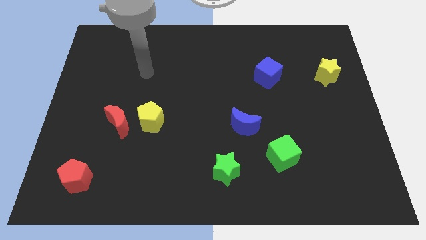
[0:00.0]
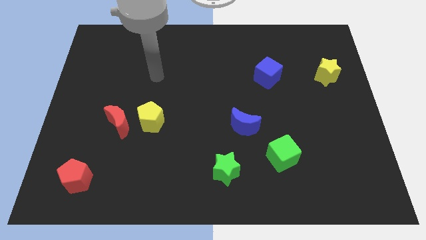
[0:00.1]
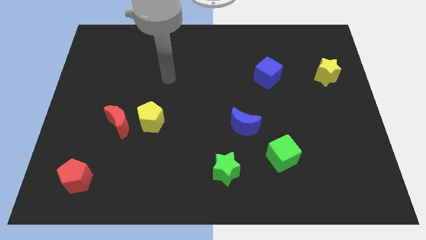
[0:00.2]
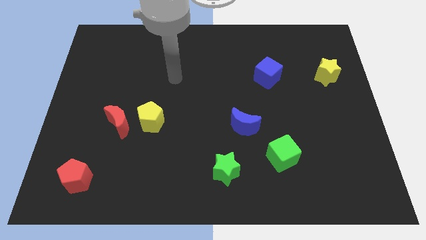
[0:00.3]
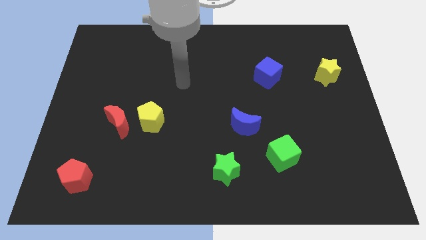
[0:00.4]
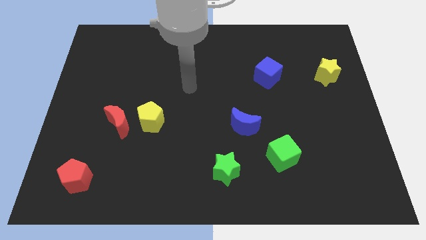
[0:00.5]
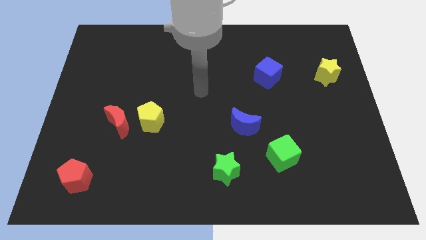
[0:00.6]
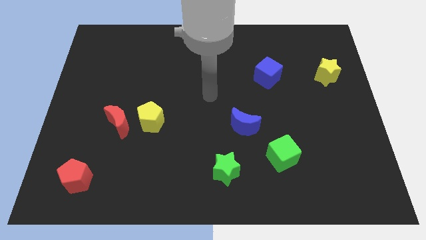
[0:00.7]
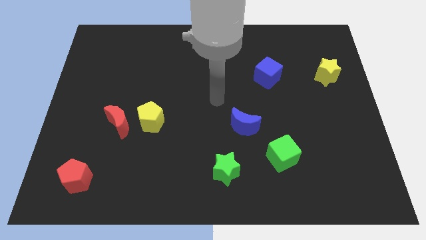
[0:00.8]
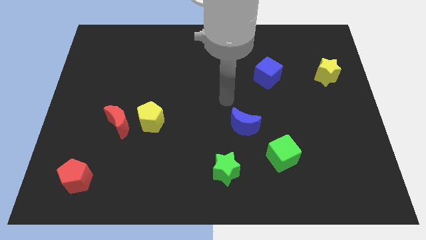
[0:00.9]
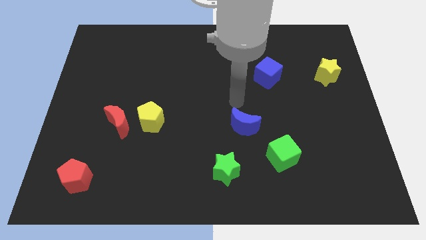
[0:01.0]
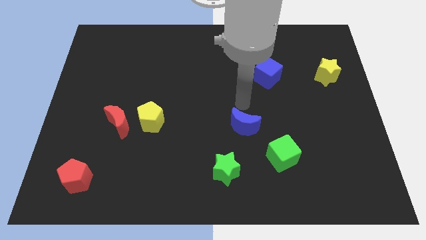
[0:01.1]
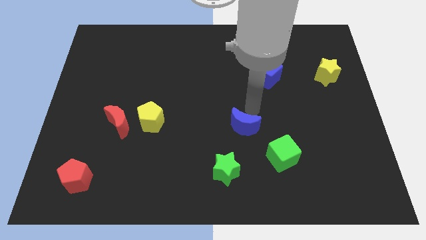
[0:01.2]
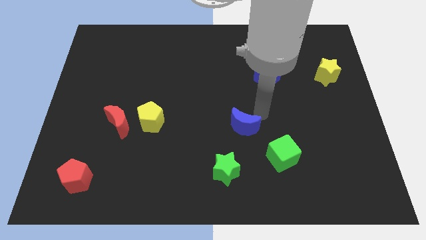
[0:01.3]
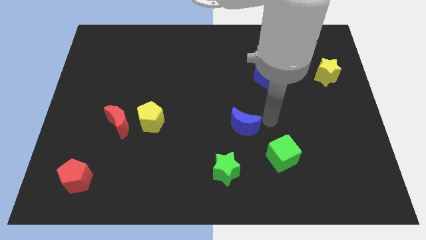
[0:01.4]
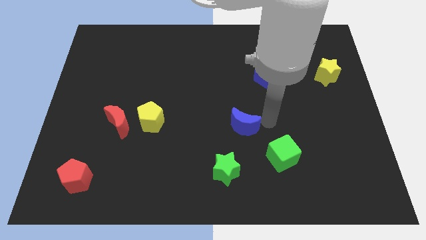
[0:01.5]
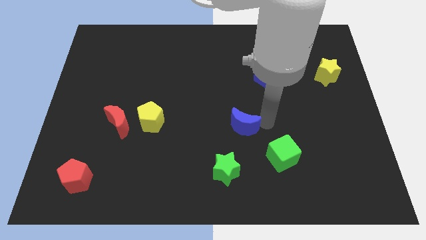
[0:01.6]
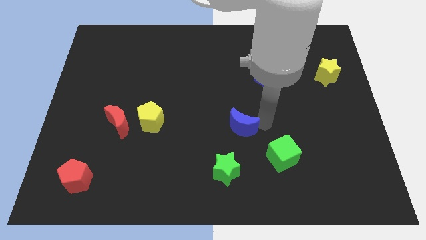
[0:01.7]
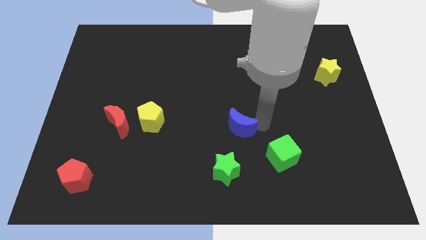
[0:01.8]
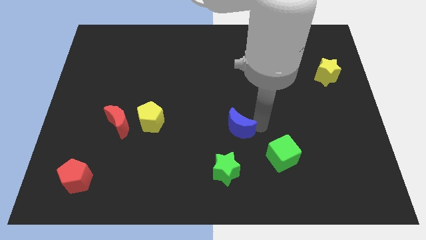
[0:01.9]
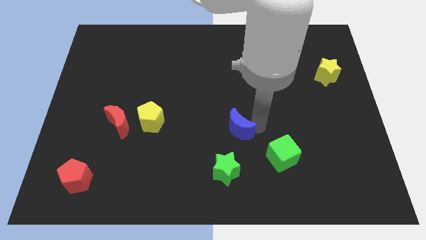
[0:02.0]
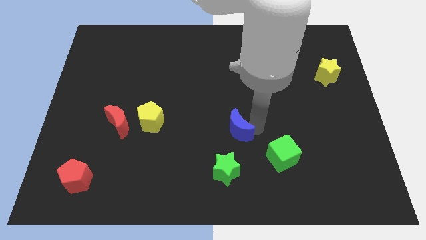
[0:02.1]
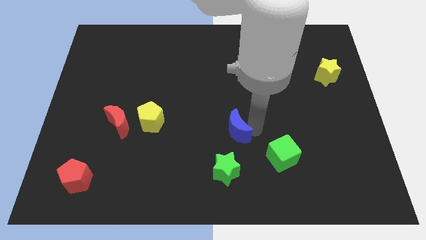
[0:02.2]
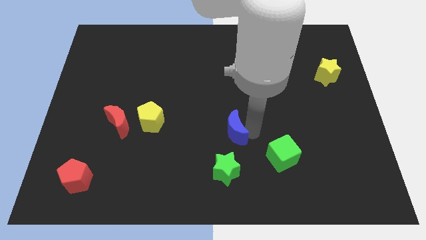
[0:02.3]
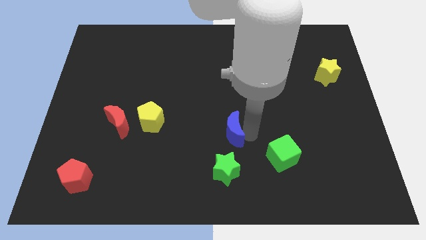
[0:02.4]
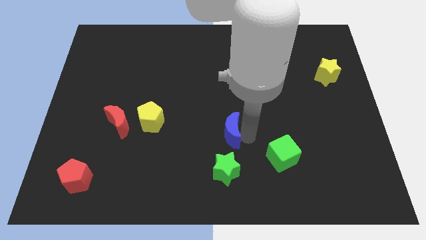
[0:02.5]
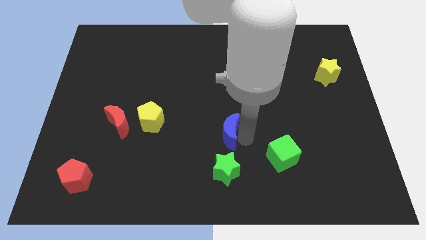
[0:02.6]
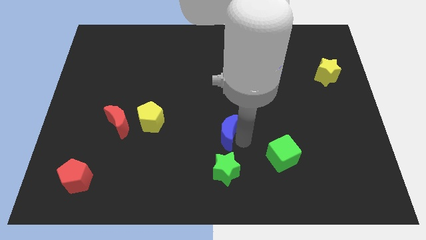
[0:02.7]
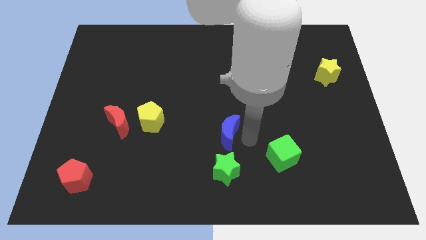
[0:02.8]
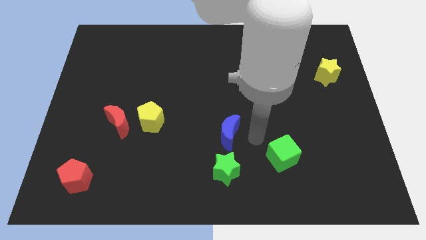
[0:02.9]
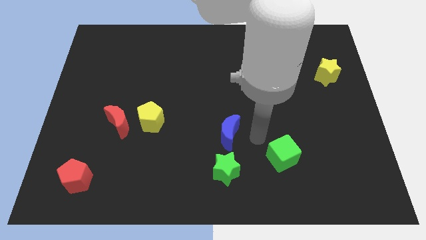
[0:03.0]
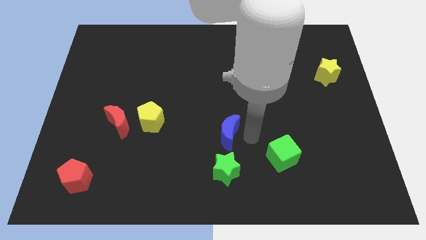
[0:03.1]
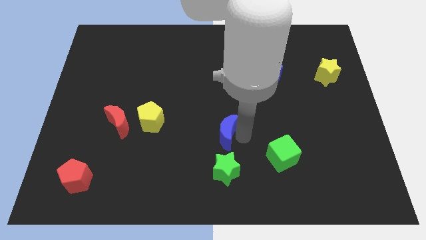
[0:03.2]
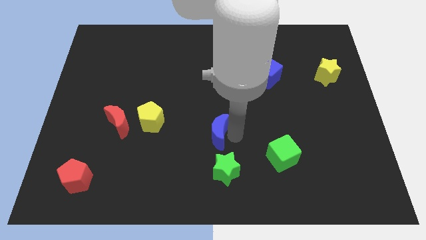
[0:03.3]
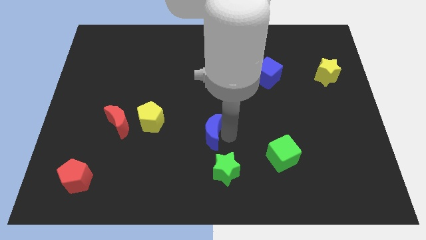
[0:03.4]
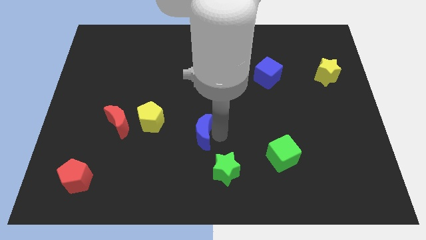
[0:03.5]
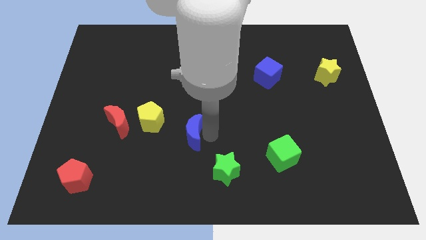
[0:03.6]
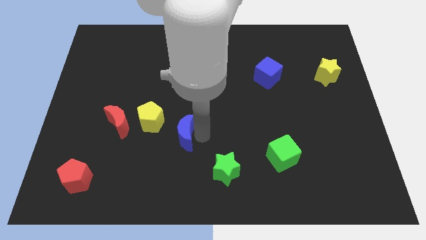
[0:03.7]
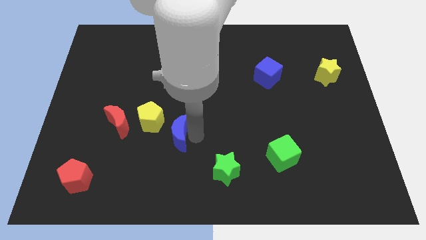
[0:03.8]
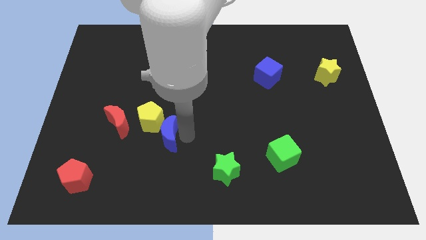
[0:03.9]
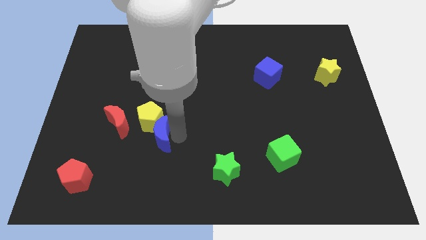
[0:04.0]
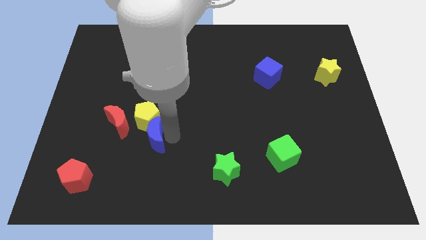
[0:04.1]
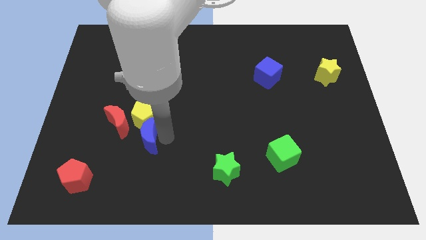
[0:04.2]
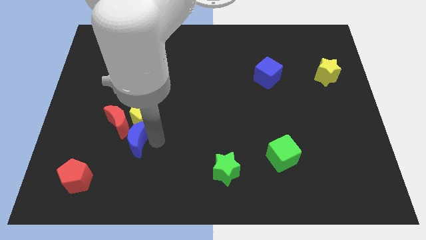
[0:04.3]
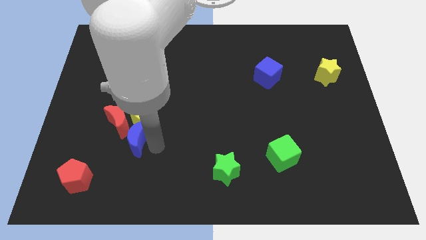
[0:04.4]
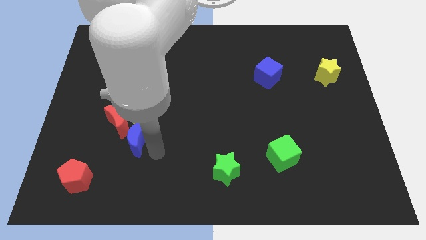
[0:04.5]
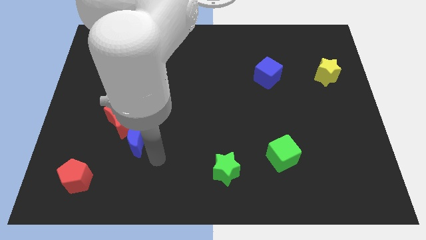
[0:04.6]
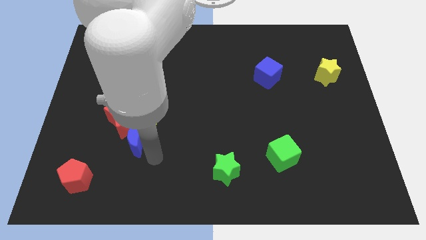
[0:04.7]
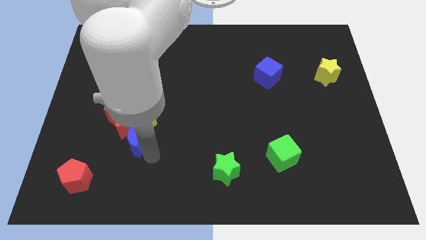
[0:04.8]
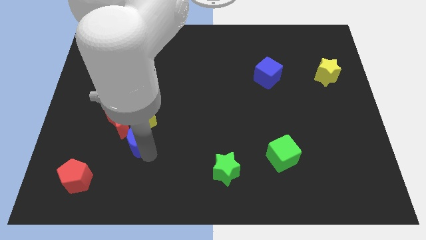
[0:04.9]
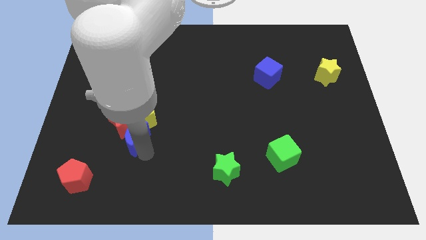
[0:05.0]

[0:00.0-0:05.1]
push the blue moon to the red moon

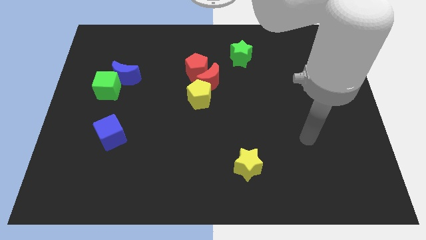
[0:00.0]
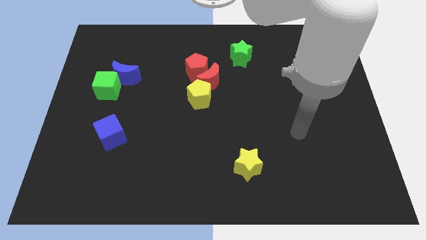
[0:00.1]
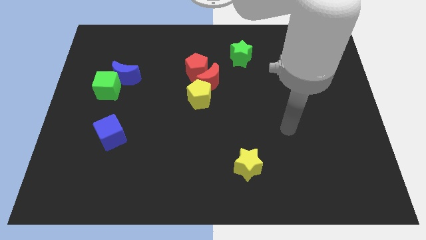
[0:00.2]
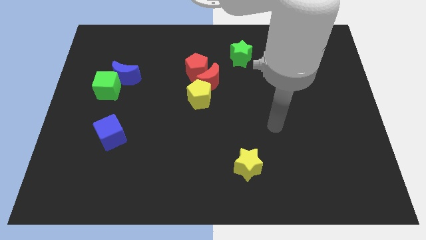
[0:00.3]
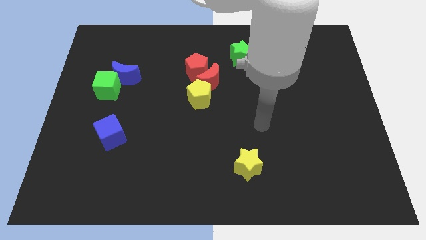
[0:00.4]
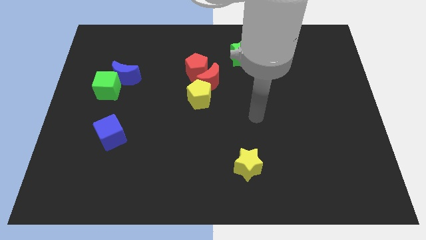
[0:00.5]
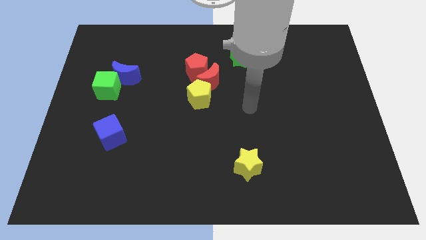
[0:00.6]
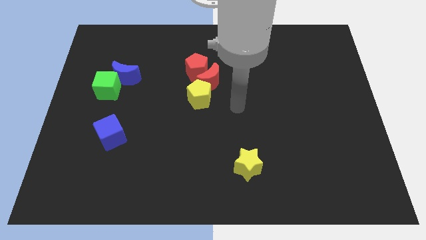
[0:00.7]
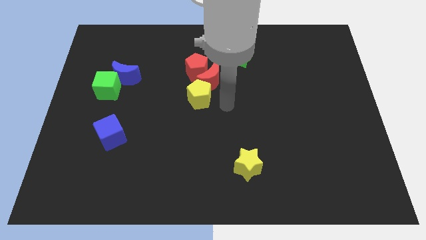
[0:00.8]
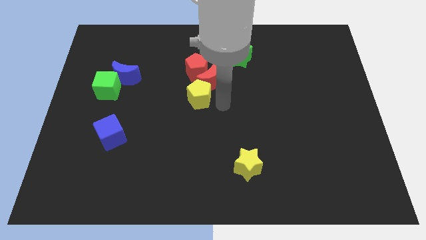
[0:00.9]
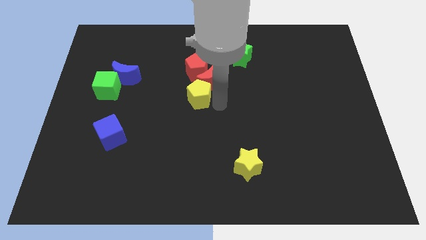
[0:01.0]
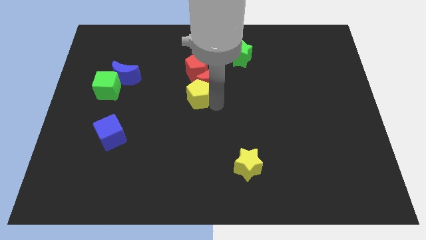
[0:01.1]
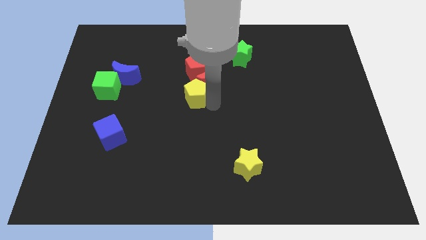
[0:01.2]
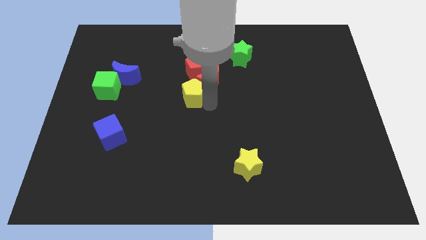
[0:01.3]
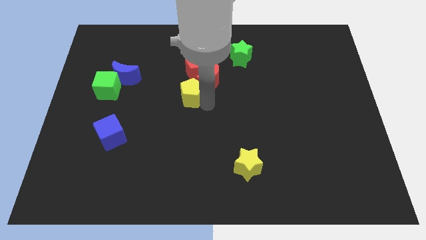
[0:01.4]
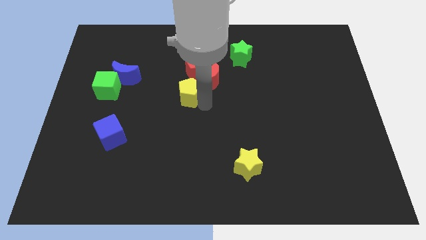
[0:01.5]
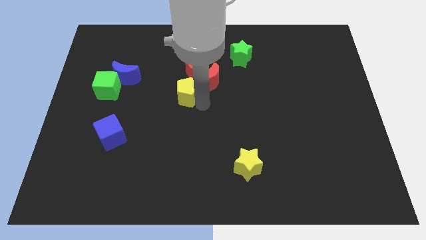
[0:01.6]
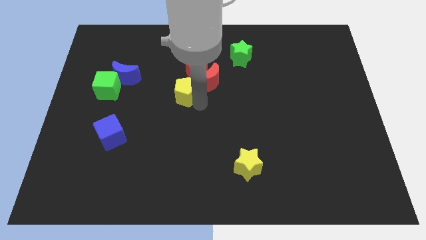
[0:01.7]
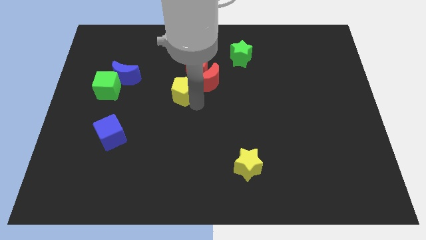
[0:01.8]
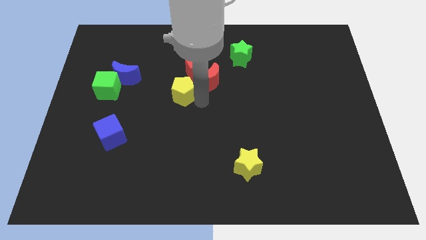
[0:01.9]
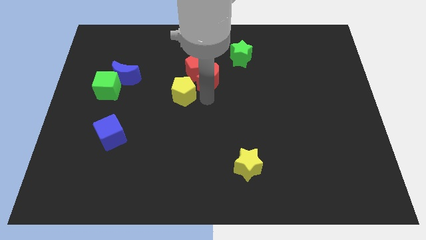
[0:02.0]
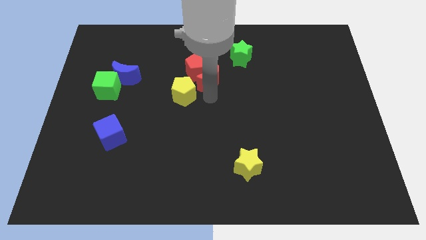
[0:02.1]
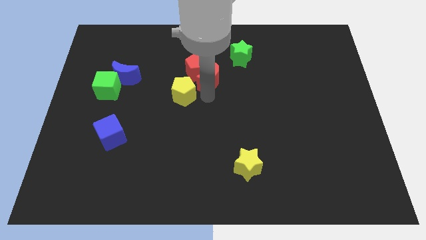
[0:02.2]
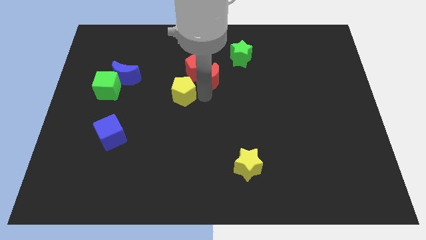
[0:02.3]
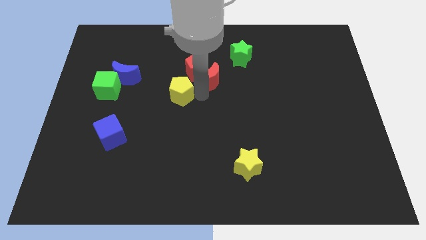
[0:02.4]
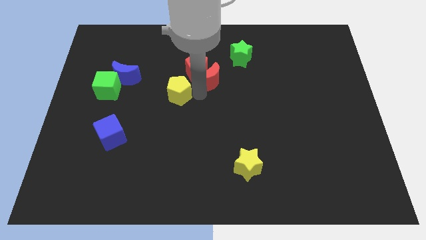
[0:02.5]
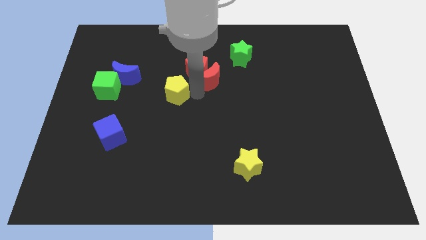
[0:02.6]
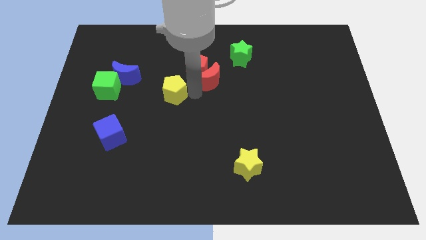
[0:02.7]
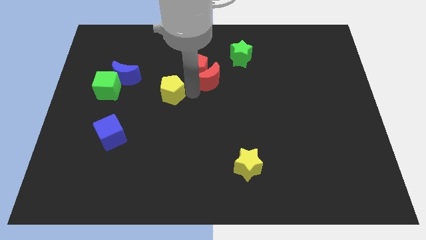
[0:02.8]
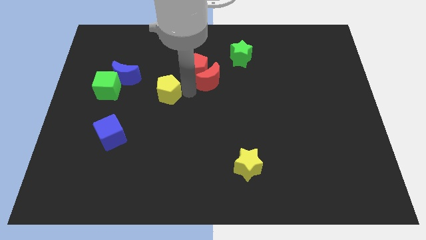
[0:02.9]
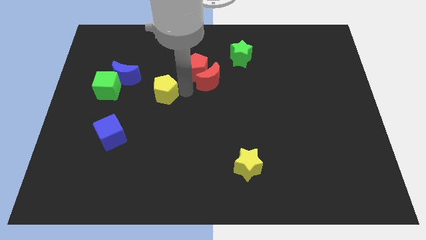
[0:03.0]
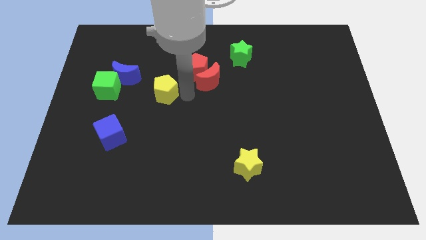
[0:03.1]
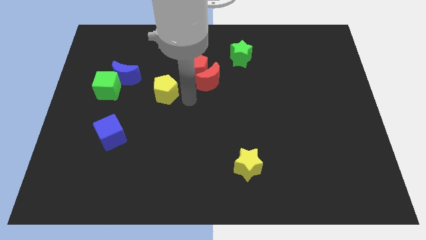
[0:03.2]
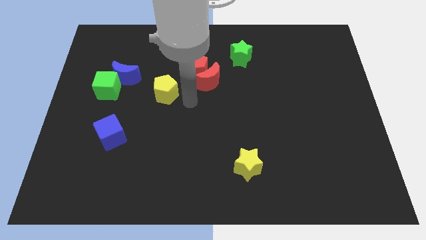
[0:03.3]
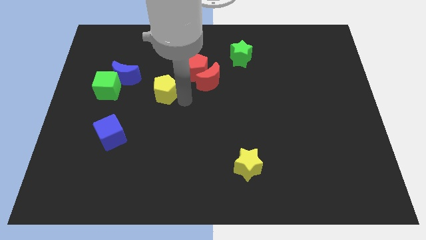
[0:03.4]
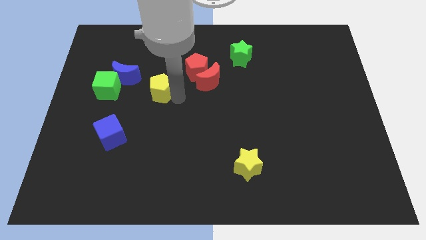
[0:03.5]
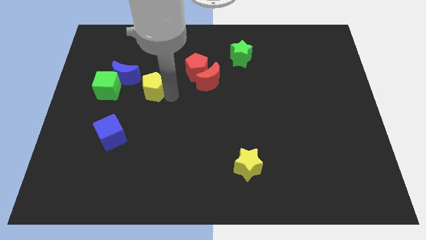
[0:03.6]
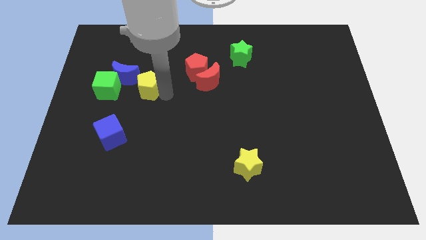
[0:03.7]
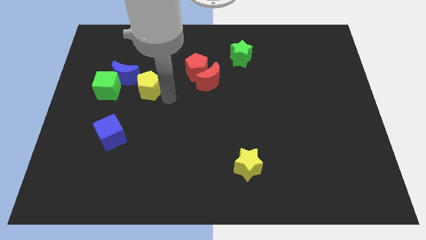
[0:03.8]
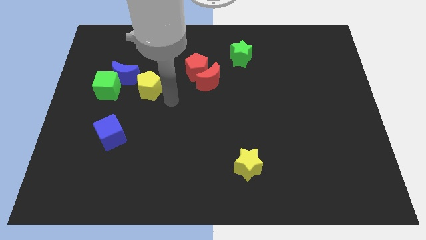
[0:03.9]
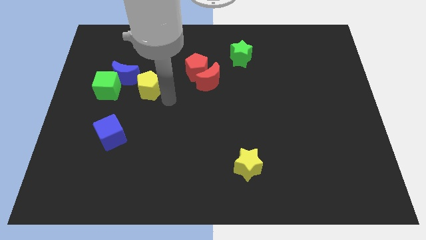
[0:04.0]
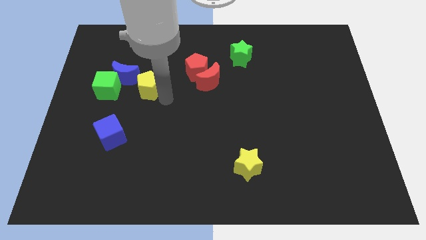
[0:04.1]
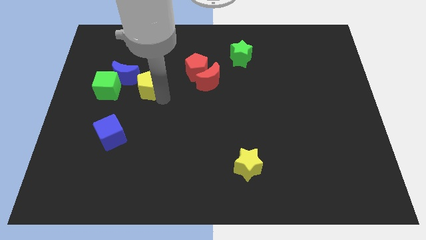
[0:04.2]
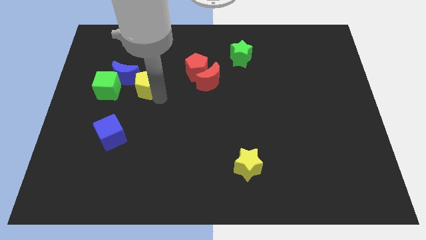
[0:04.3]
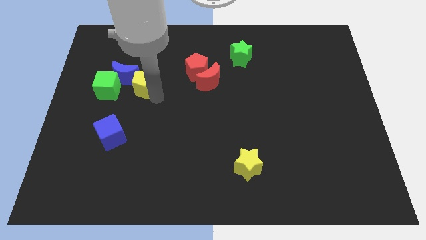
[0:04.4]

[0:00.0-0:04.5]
put the yellow pentagon next to the blue moon
